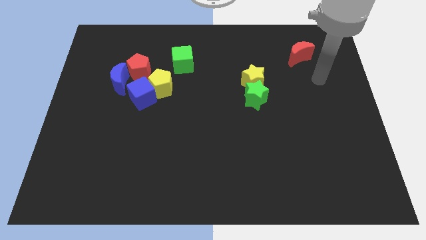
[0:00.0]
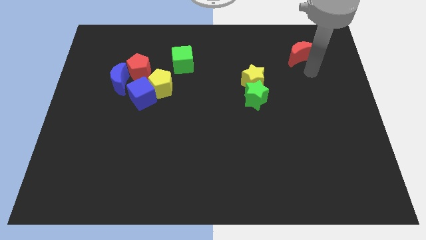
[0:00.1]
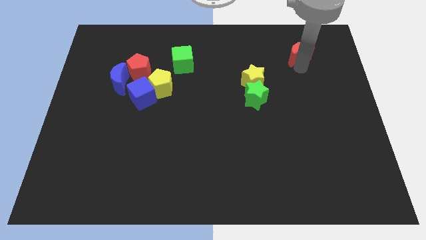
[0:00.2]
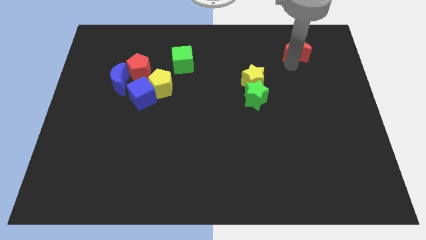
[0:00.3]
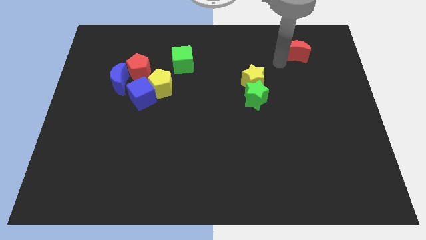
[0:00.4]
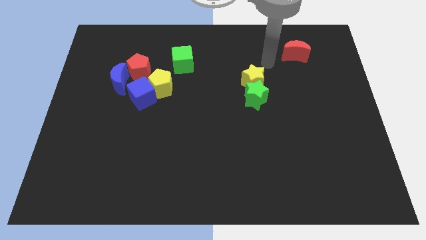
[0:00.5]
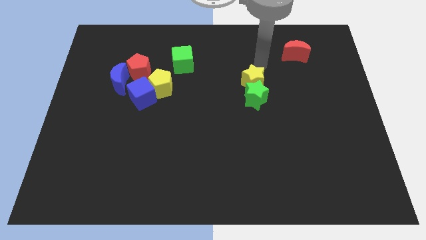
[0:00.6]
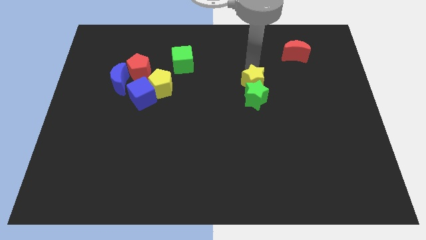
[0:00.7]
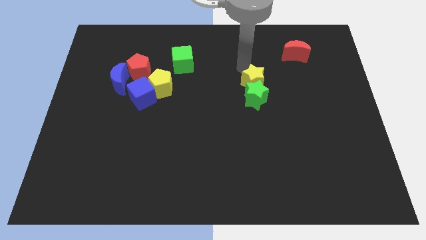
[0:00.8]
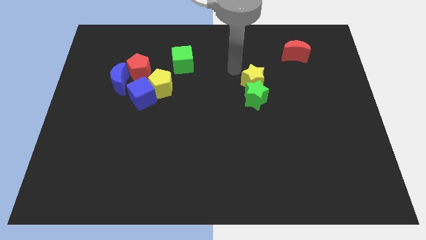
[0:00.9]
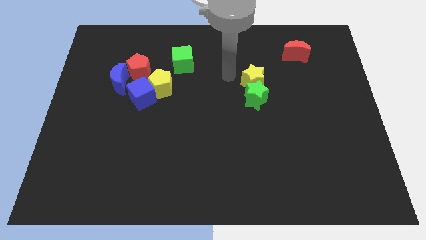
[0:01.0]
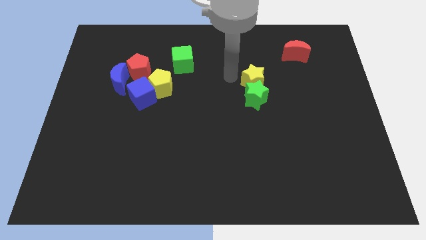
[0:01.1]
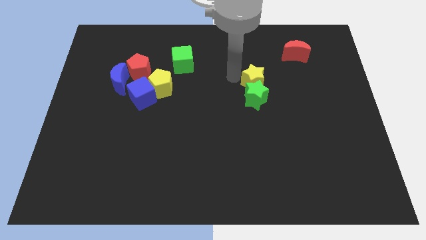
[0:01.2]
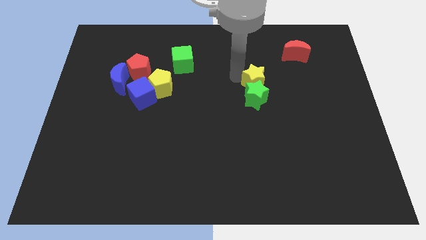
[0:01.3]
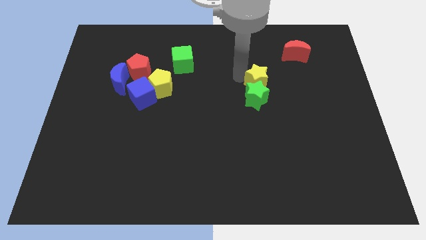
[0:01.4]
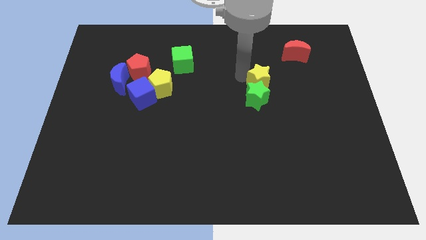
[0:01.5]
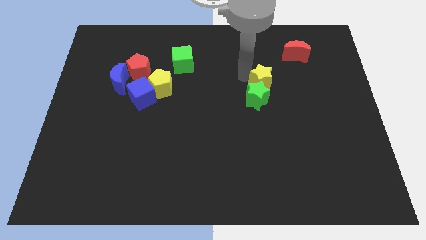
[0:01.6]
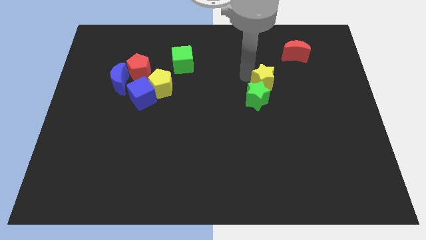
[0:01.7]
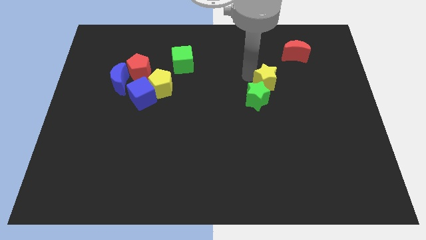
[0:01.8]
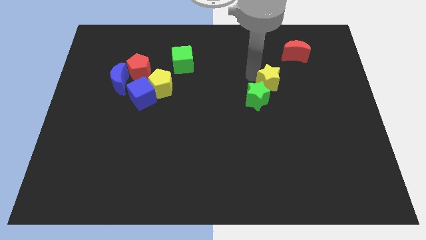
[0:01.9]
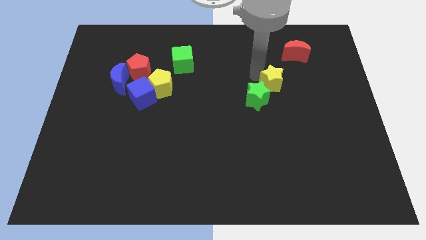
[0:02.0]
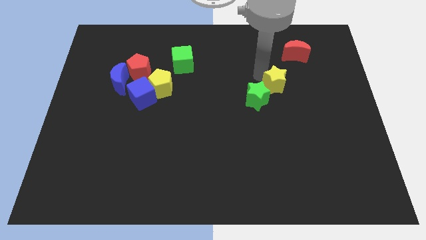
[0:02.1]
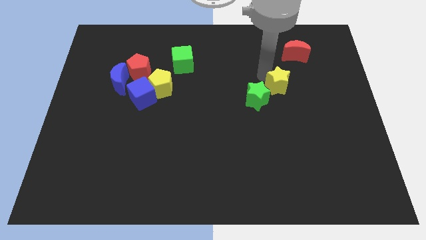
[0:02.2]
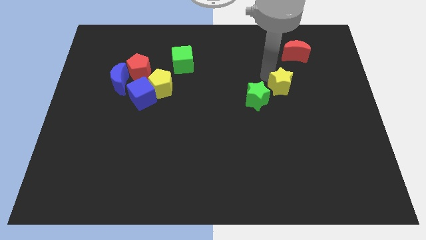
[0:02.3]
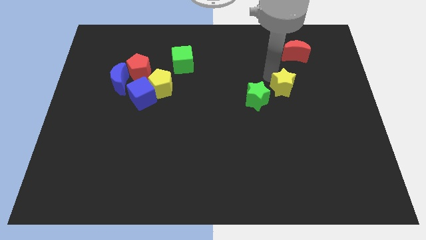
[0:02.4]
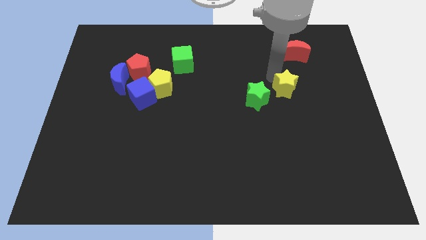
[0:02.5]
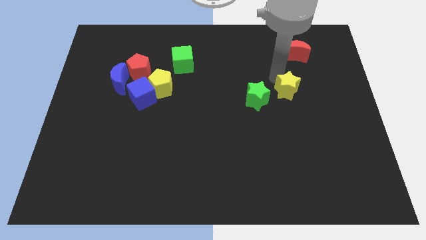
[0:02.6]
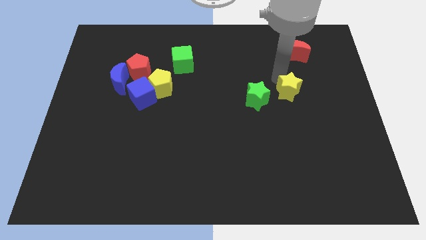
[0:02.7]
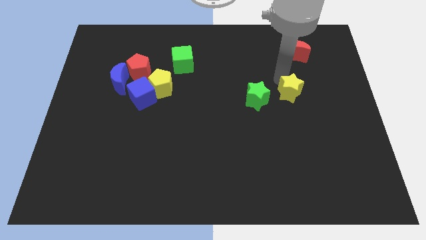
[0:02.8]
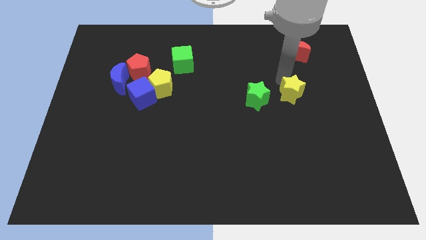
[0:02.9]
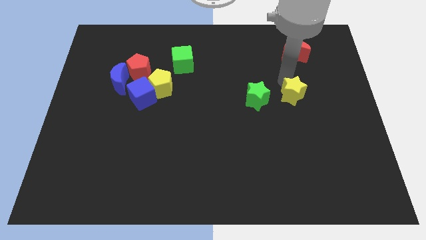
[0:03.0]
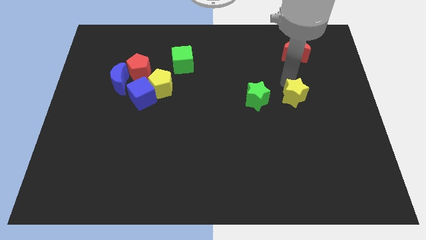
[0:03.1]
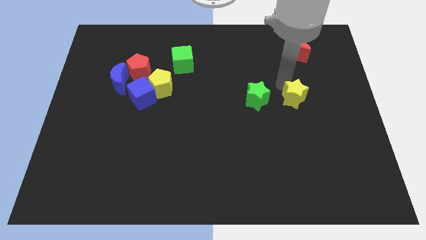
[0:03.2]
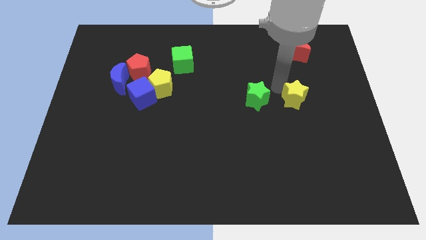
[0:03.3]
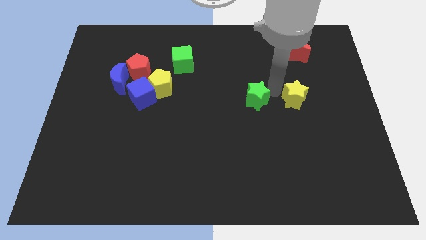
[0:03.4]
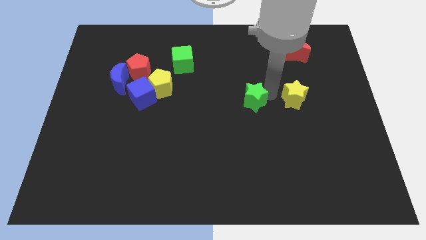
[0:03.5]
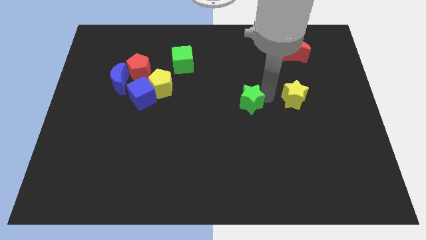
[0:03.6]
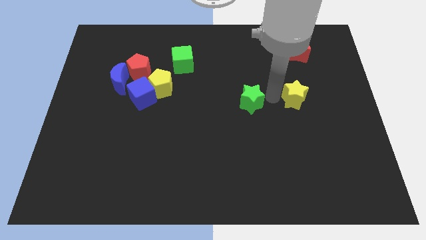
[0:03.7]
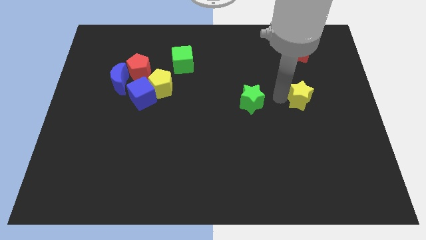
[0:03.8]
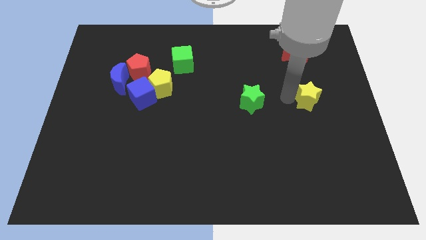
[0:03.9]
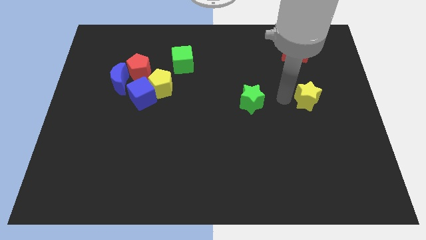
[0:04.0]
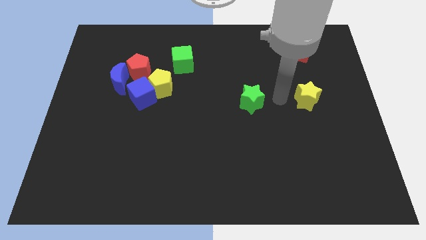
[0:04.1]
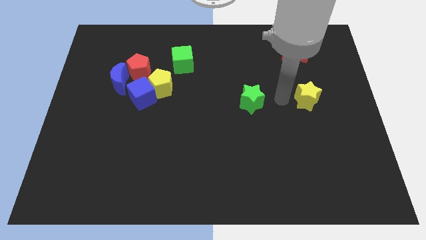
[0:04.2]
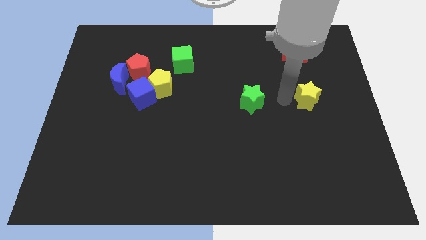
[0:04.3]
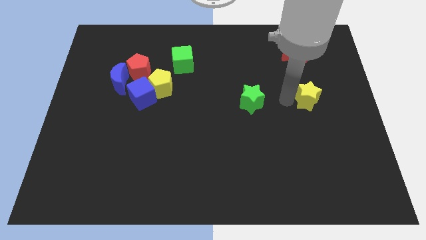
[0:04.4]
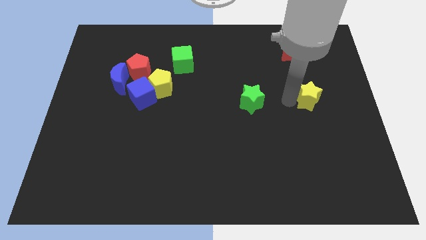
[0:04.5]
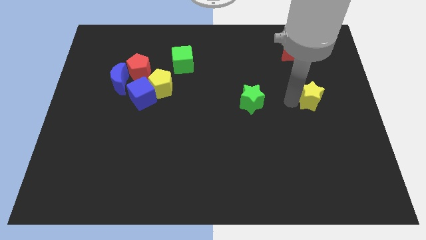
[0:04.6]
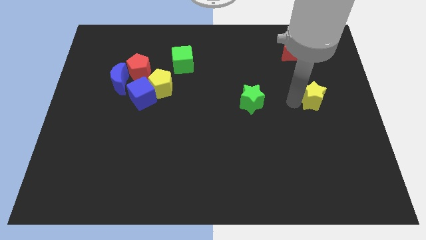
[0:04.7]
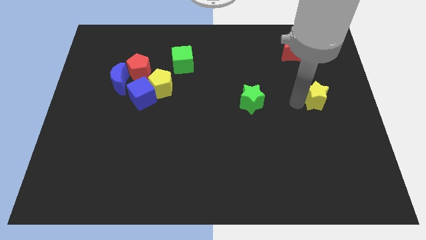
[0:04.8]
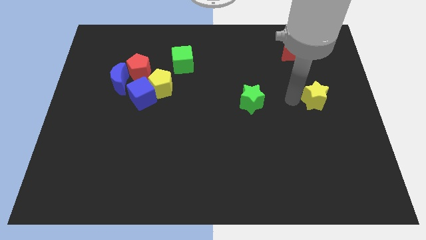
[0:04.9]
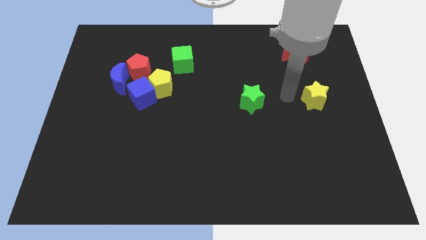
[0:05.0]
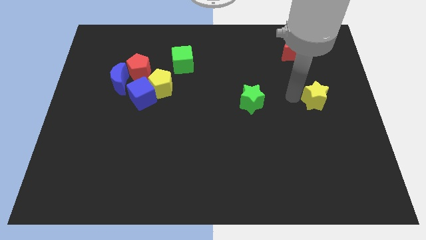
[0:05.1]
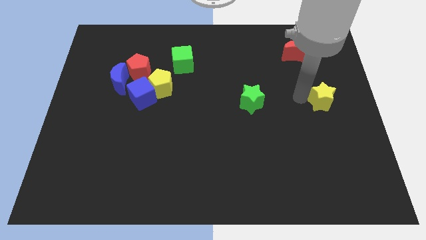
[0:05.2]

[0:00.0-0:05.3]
push the yellow star to the right side of the board

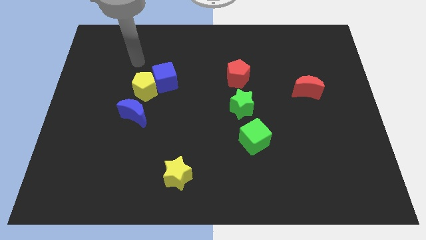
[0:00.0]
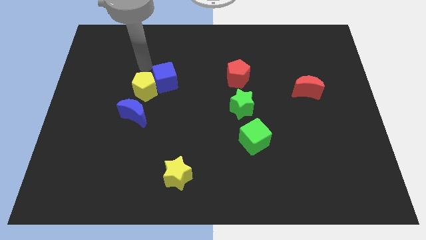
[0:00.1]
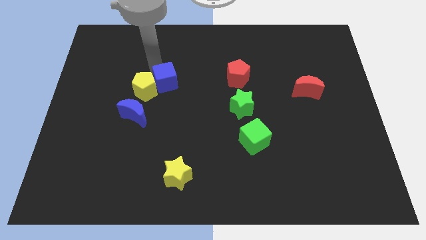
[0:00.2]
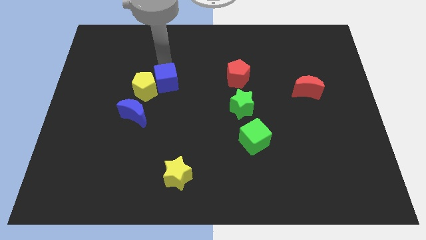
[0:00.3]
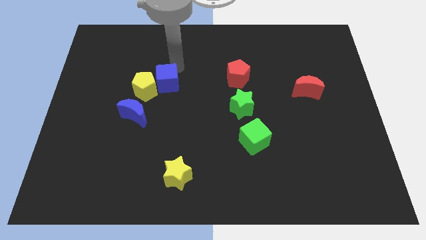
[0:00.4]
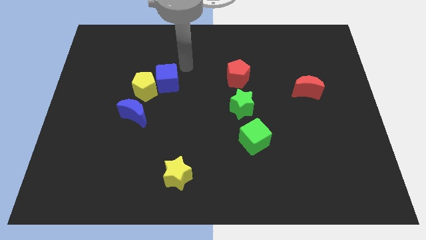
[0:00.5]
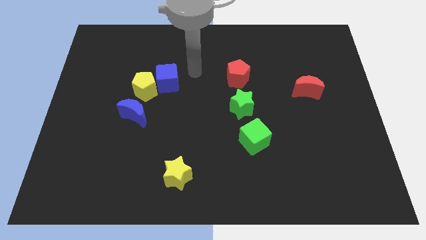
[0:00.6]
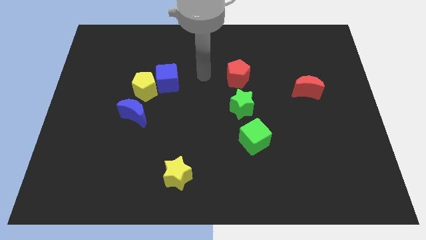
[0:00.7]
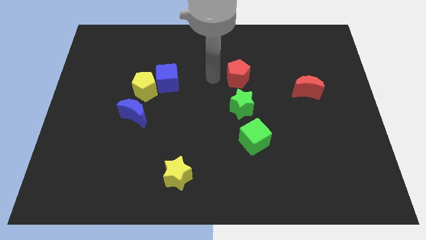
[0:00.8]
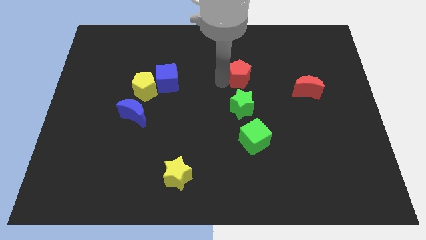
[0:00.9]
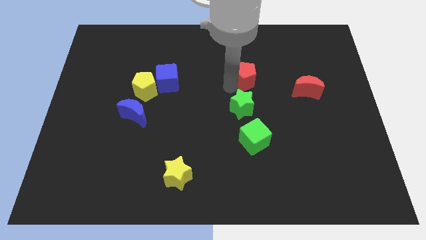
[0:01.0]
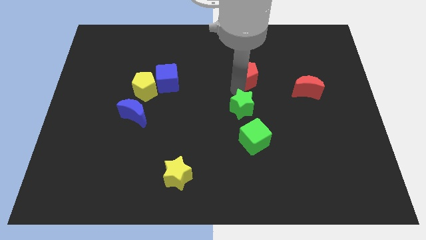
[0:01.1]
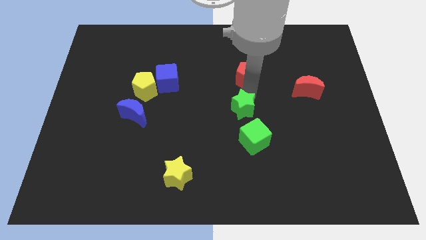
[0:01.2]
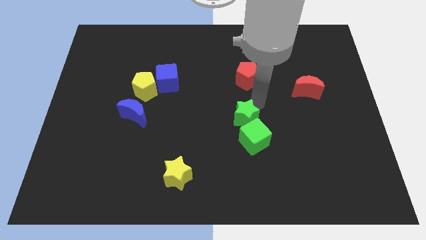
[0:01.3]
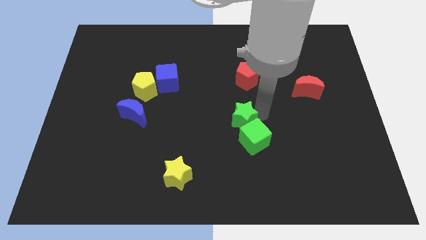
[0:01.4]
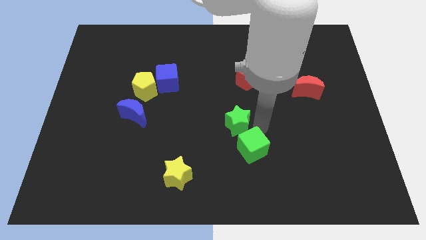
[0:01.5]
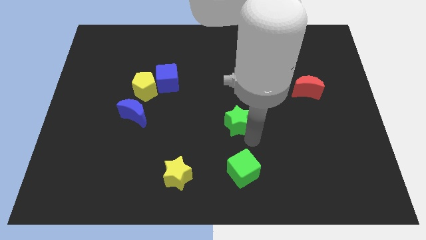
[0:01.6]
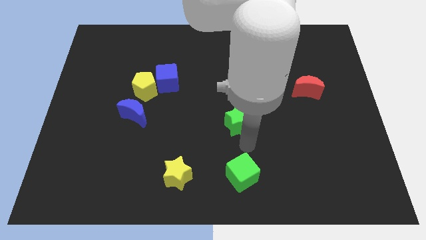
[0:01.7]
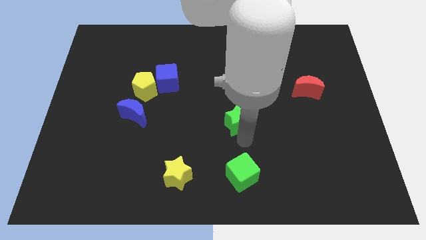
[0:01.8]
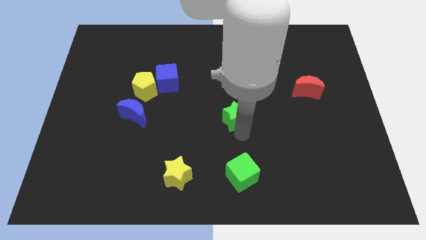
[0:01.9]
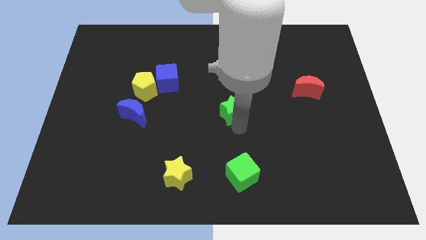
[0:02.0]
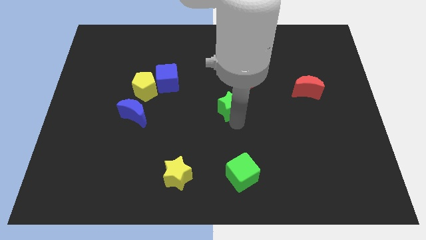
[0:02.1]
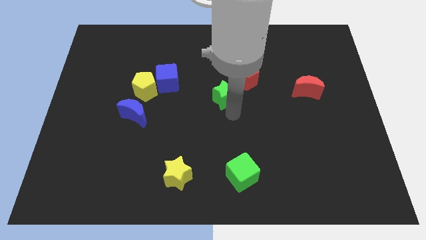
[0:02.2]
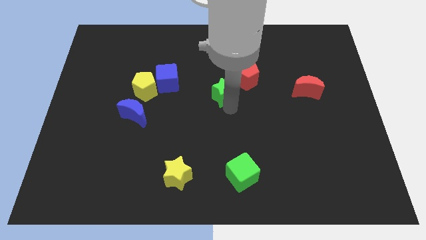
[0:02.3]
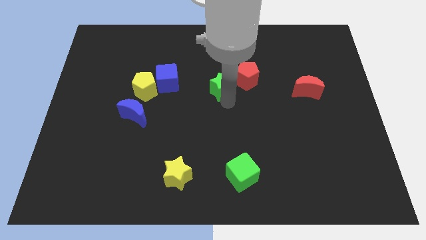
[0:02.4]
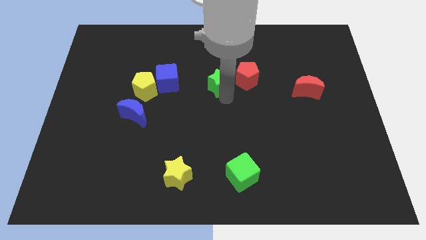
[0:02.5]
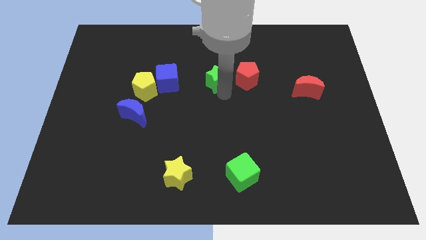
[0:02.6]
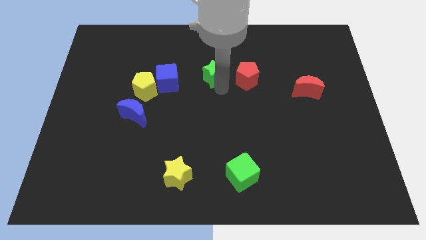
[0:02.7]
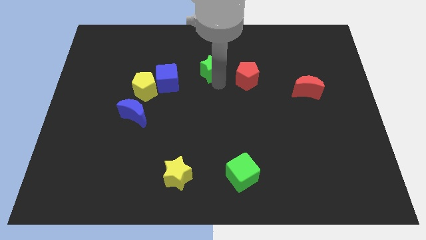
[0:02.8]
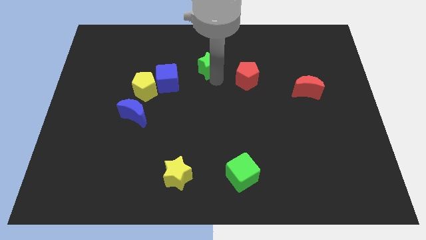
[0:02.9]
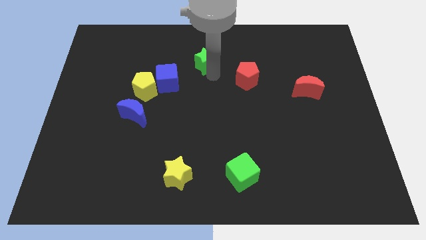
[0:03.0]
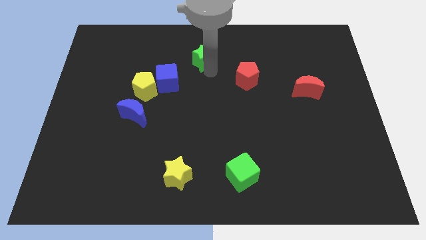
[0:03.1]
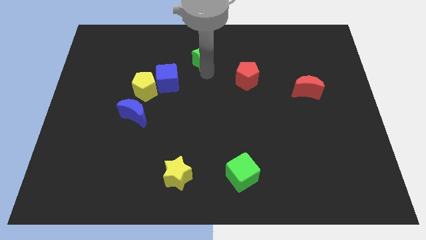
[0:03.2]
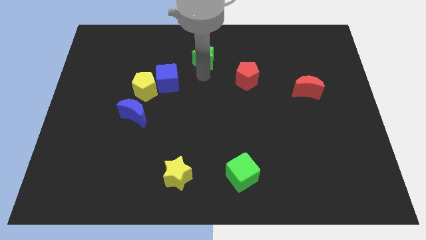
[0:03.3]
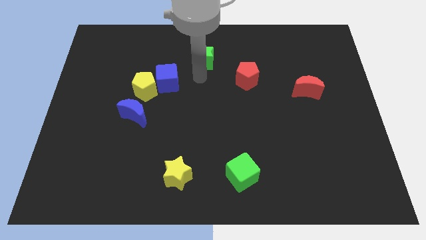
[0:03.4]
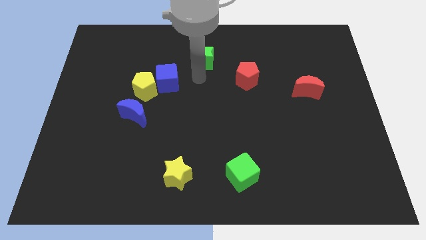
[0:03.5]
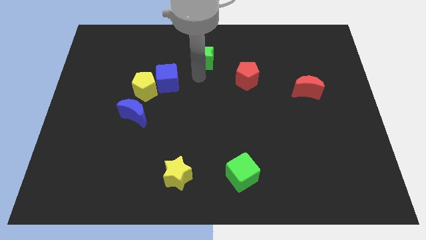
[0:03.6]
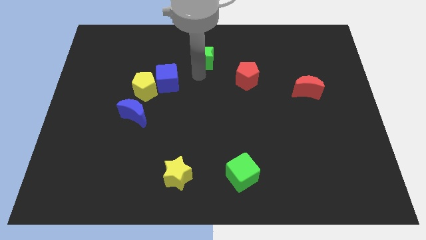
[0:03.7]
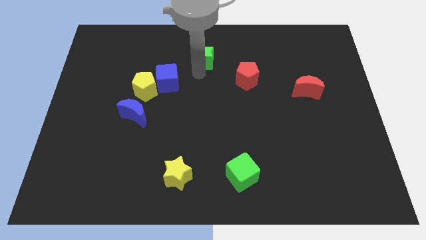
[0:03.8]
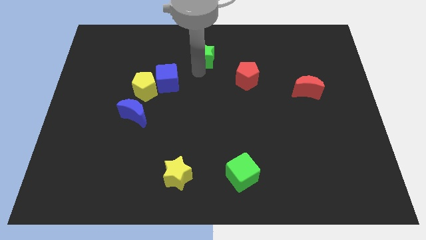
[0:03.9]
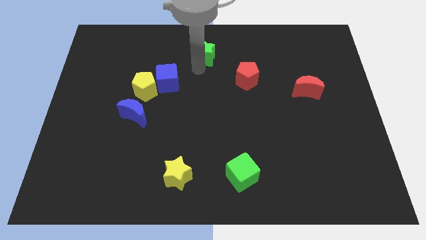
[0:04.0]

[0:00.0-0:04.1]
put the green star to the towards your base
